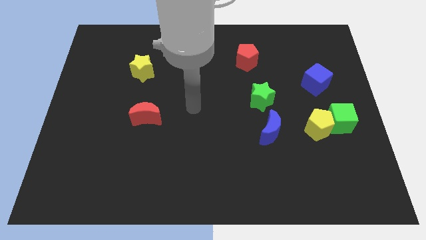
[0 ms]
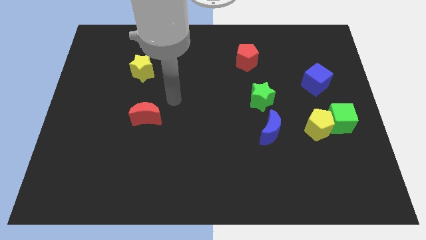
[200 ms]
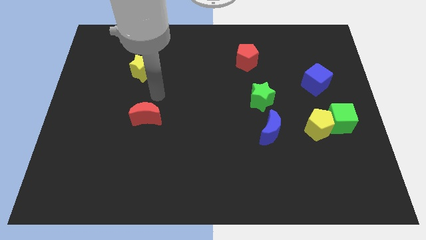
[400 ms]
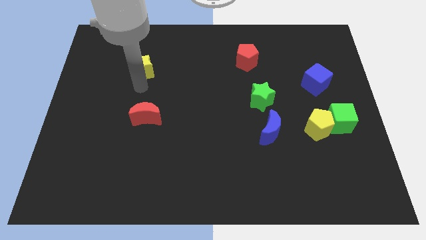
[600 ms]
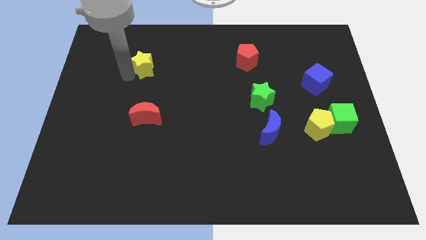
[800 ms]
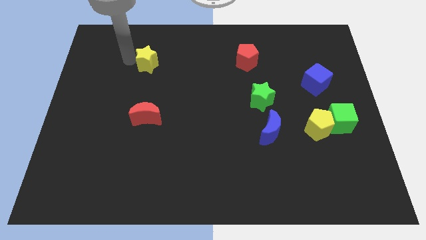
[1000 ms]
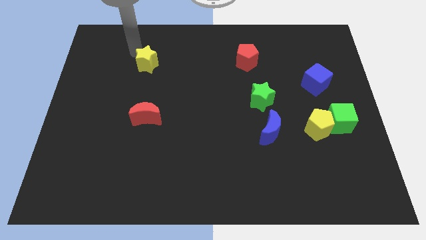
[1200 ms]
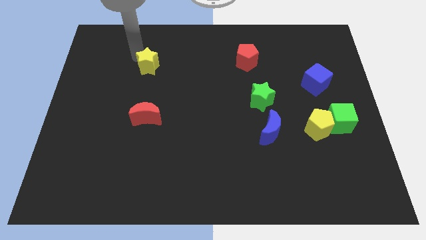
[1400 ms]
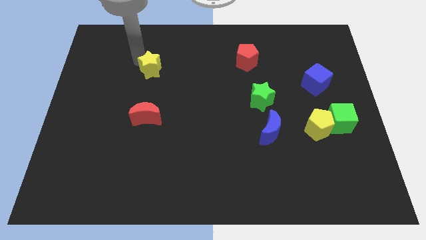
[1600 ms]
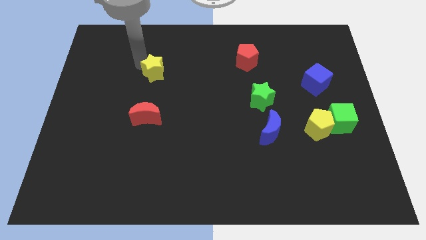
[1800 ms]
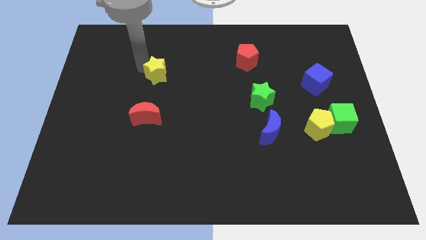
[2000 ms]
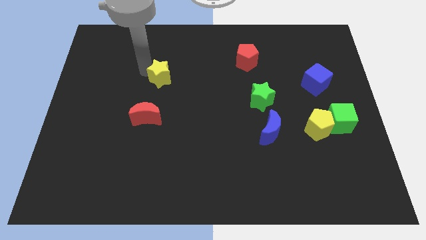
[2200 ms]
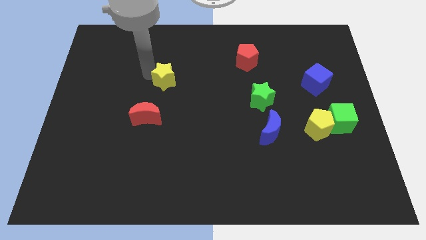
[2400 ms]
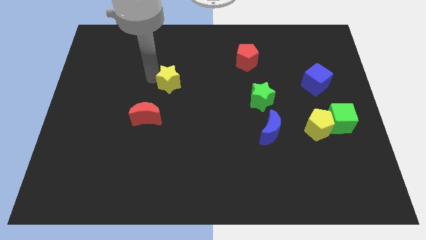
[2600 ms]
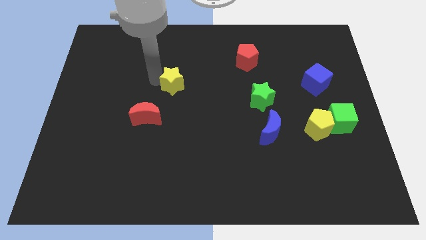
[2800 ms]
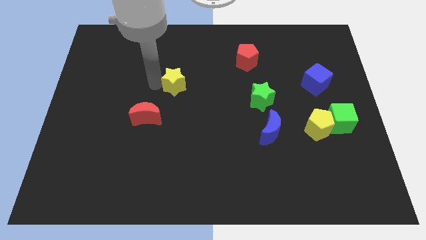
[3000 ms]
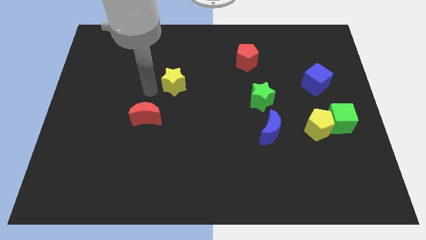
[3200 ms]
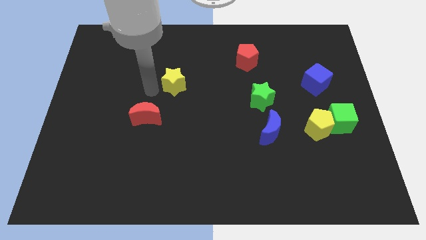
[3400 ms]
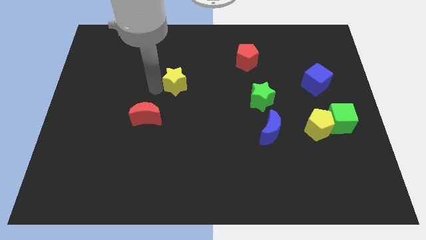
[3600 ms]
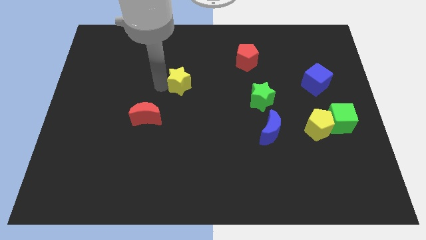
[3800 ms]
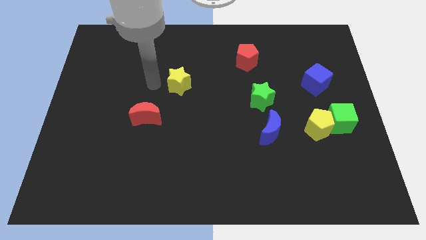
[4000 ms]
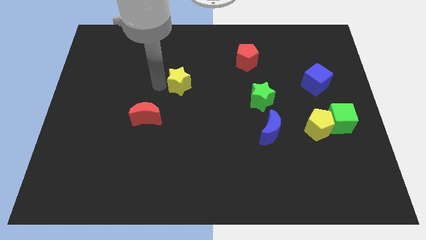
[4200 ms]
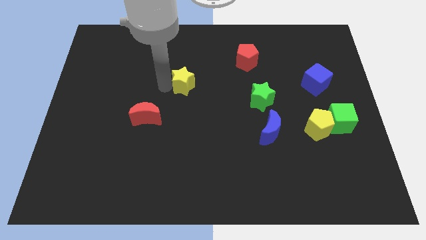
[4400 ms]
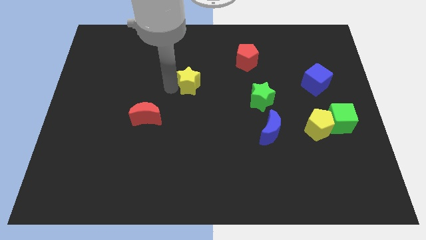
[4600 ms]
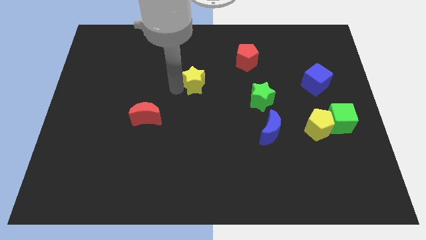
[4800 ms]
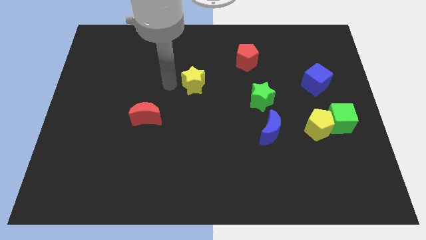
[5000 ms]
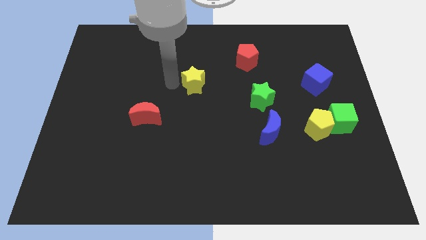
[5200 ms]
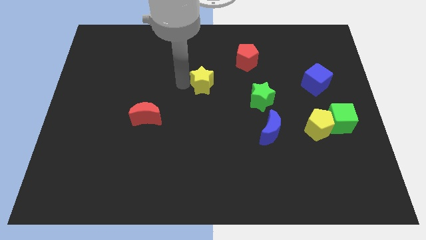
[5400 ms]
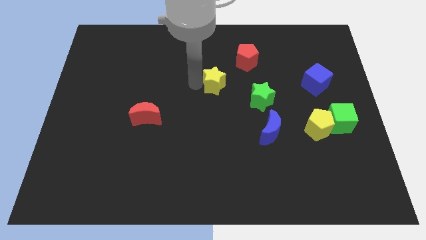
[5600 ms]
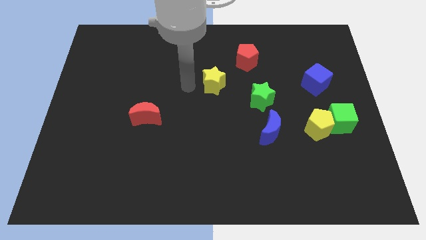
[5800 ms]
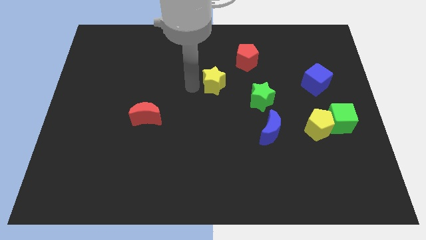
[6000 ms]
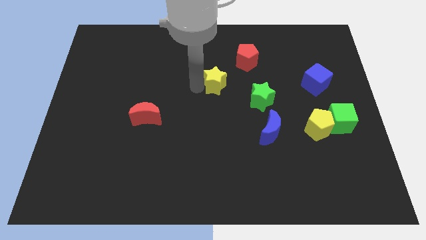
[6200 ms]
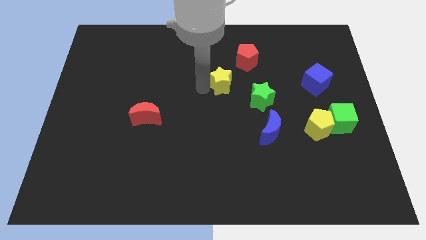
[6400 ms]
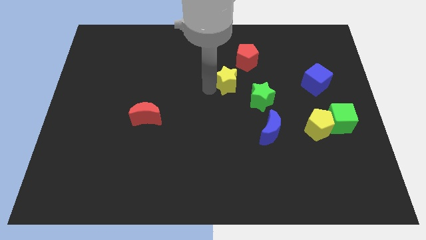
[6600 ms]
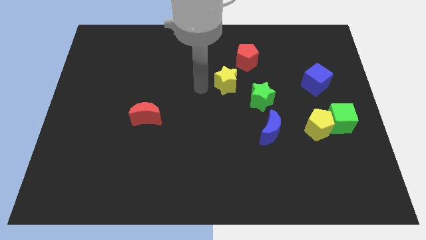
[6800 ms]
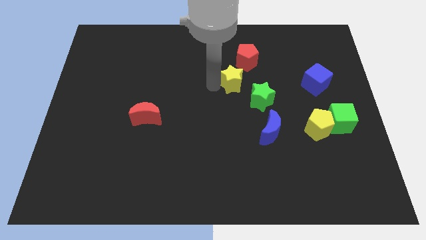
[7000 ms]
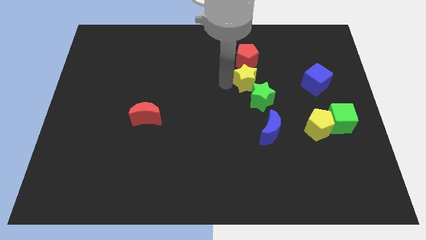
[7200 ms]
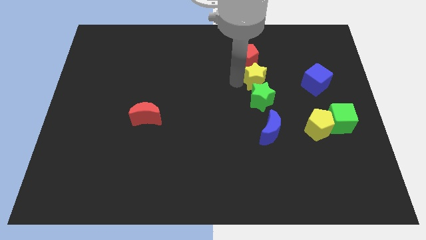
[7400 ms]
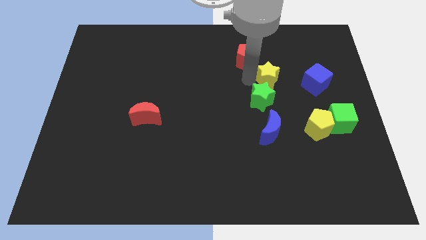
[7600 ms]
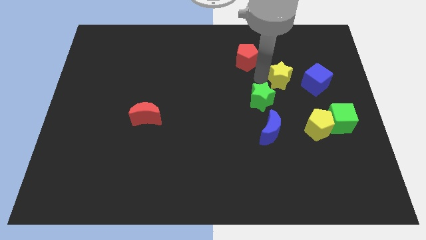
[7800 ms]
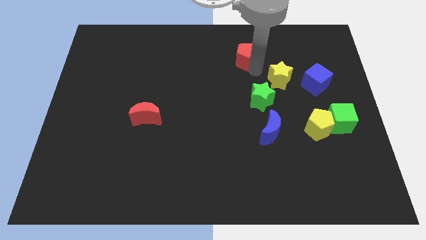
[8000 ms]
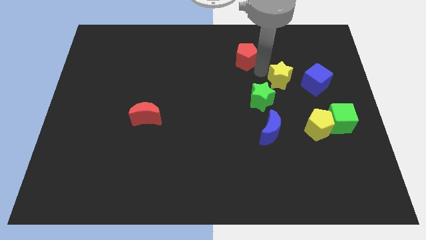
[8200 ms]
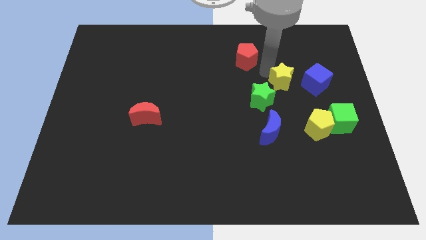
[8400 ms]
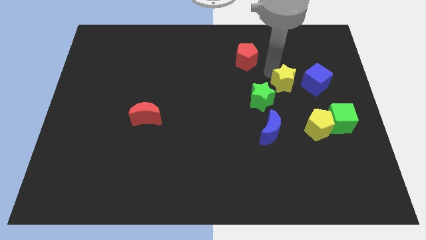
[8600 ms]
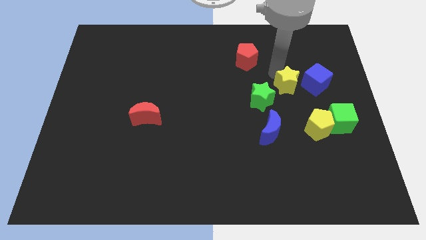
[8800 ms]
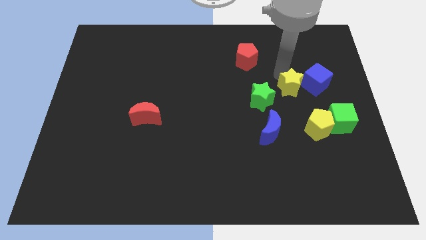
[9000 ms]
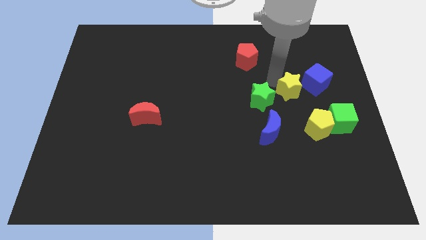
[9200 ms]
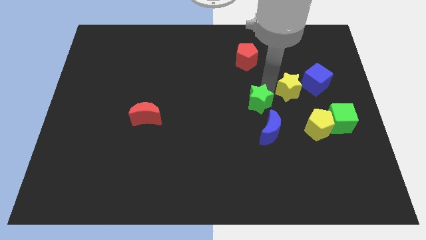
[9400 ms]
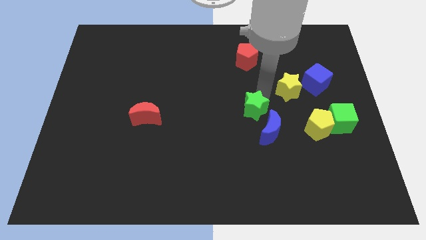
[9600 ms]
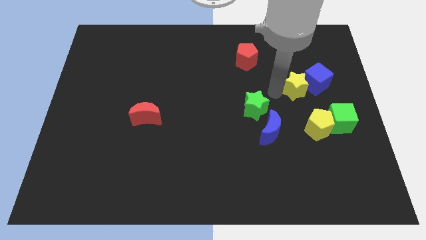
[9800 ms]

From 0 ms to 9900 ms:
slide the yellow star next to the blue cube

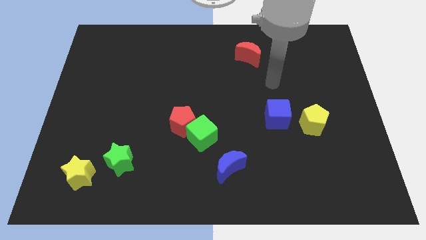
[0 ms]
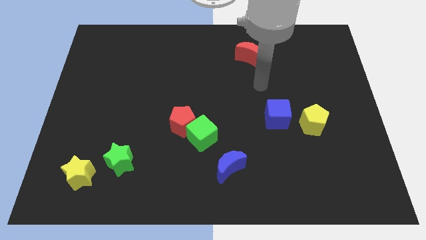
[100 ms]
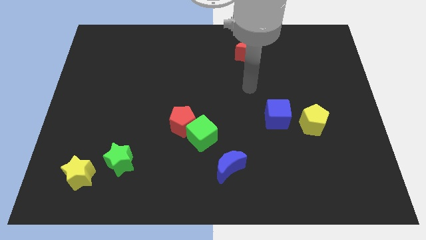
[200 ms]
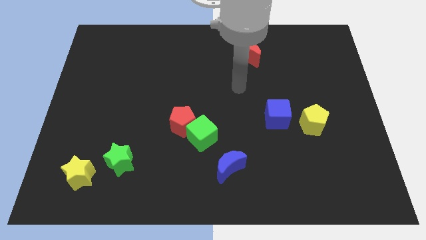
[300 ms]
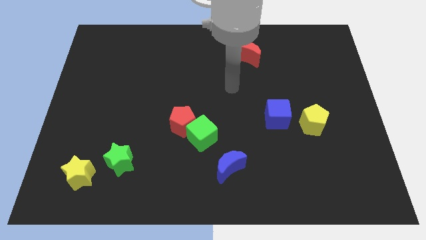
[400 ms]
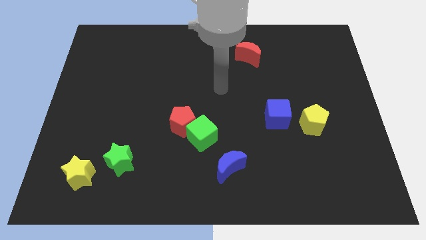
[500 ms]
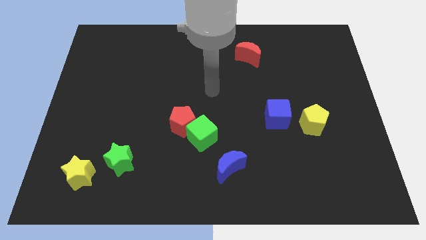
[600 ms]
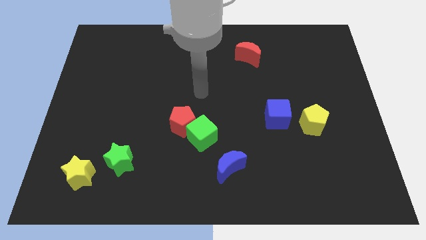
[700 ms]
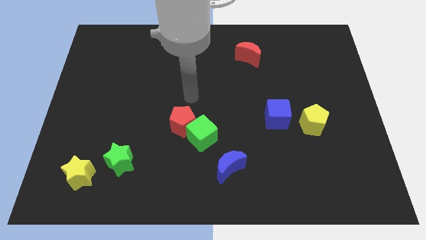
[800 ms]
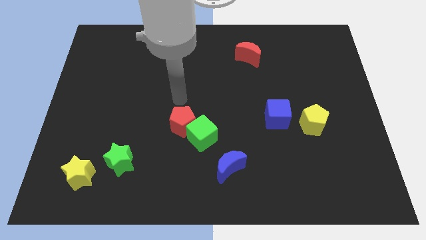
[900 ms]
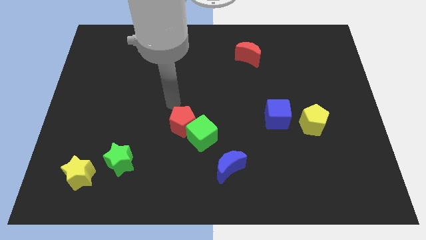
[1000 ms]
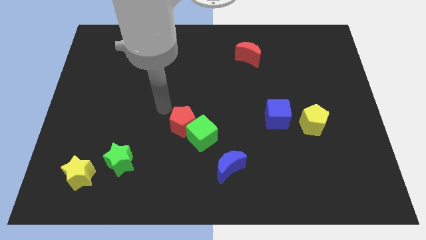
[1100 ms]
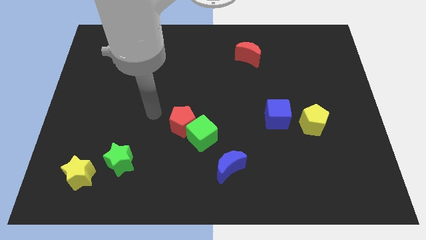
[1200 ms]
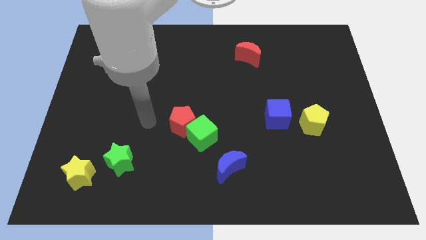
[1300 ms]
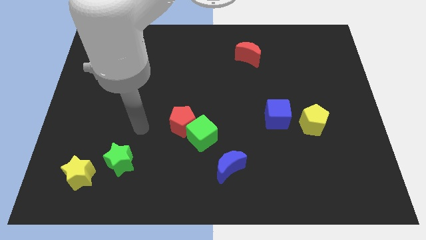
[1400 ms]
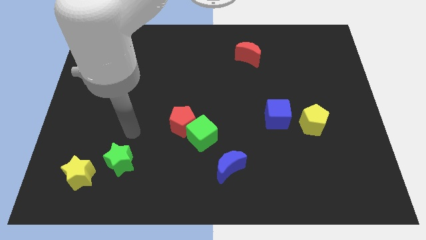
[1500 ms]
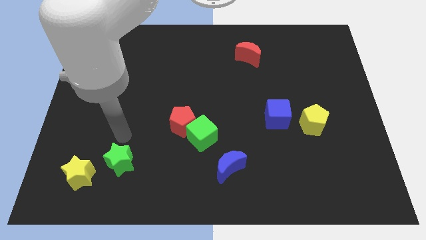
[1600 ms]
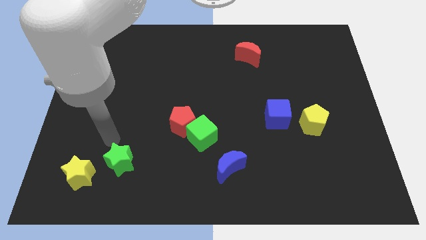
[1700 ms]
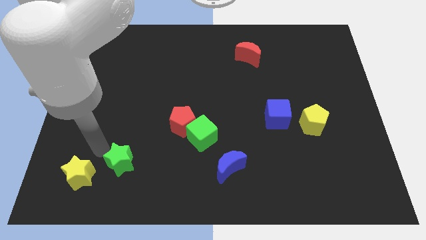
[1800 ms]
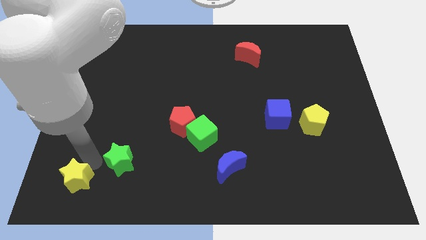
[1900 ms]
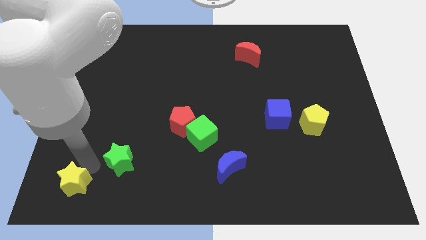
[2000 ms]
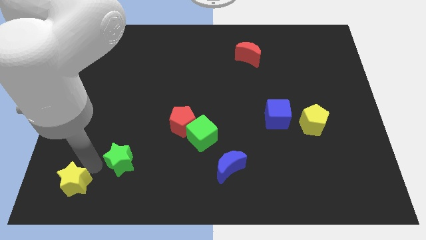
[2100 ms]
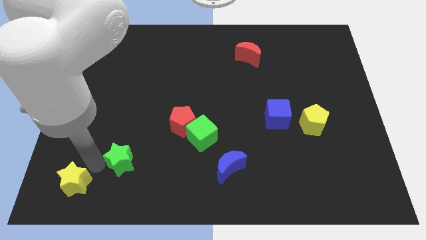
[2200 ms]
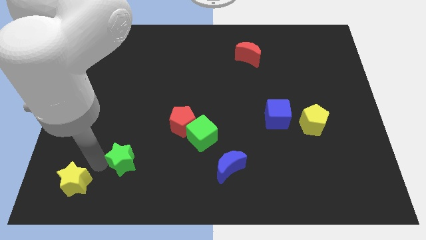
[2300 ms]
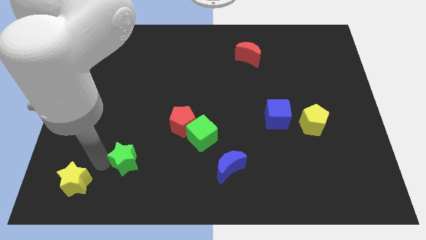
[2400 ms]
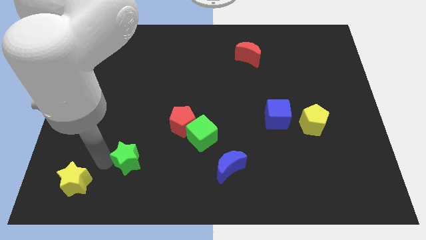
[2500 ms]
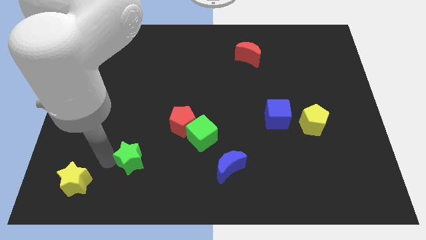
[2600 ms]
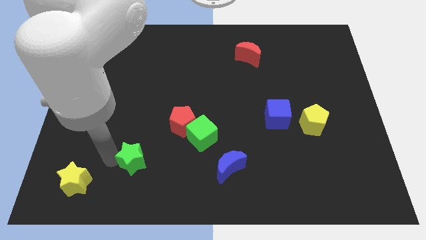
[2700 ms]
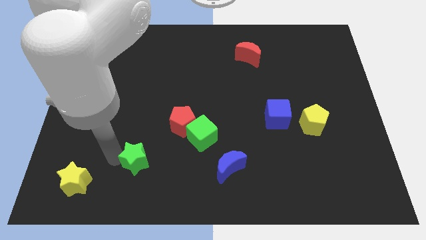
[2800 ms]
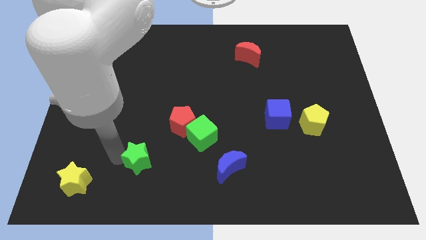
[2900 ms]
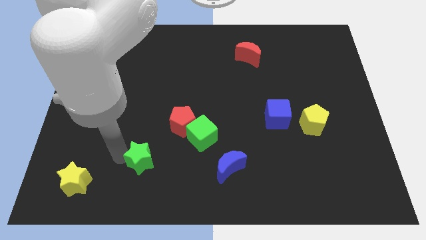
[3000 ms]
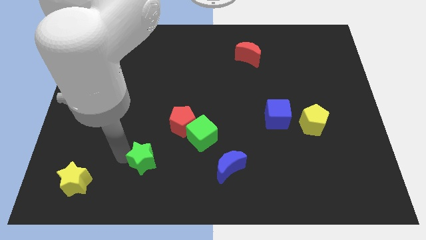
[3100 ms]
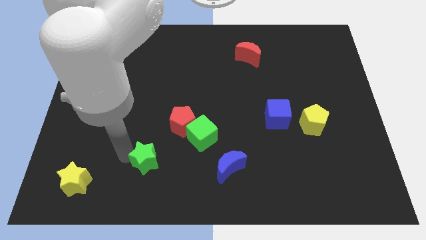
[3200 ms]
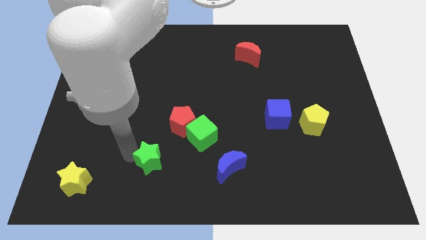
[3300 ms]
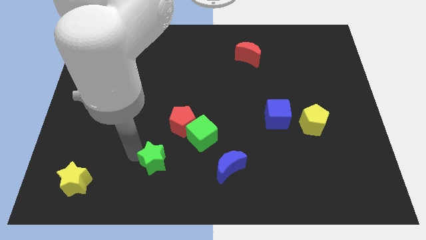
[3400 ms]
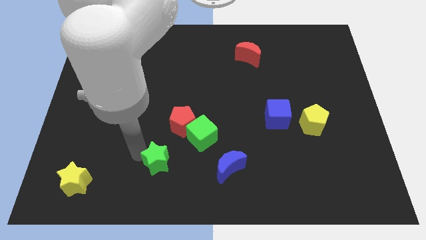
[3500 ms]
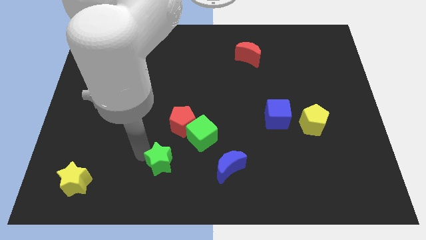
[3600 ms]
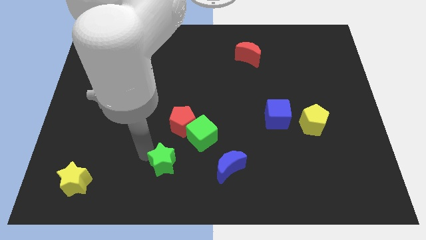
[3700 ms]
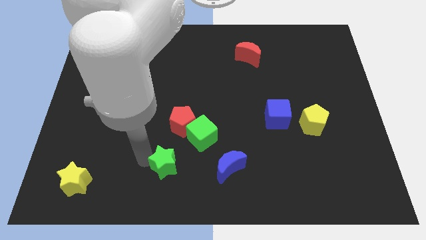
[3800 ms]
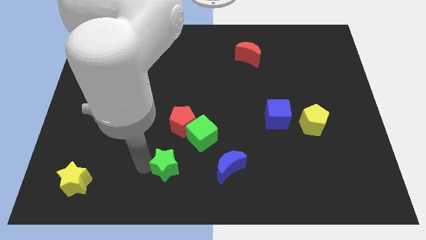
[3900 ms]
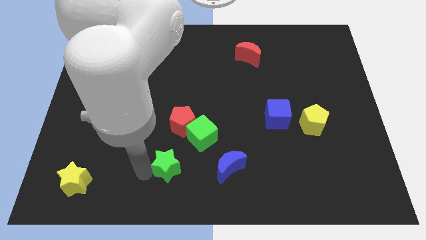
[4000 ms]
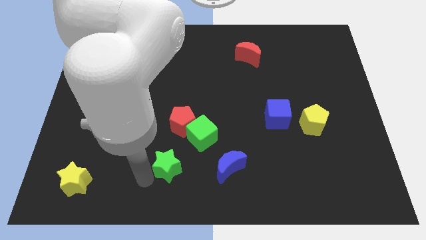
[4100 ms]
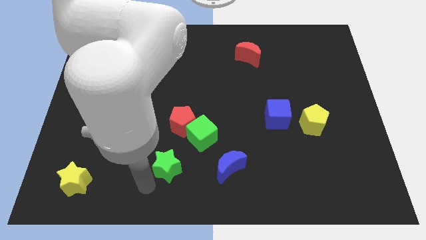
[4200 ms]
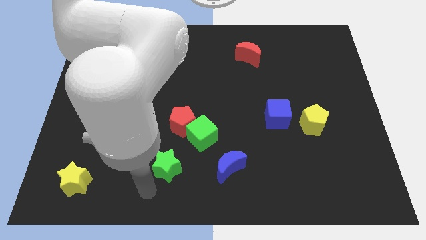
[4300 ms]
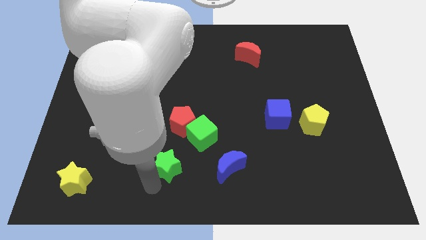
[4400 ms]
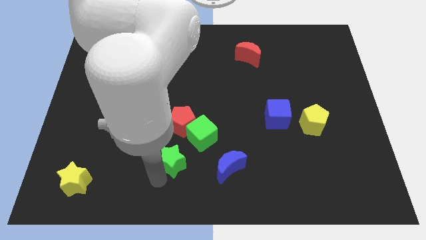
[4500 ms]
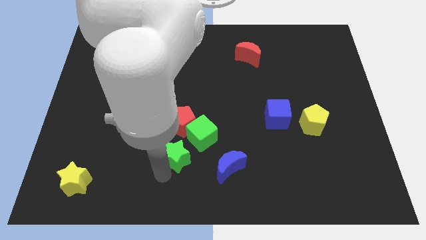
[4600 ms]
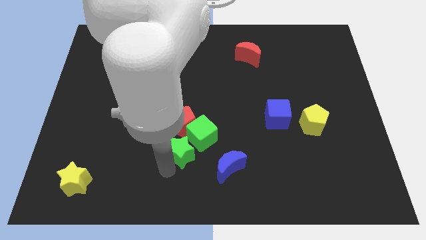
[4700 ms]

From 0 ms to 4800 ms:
move the green star to the green cube
